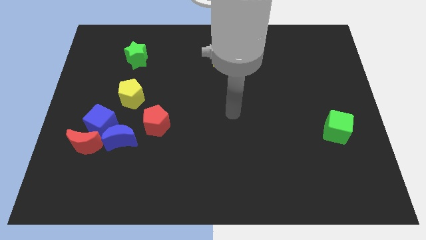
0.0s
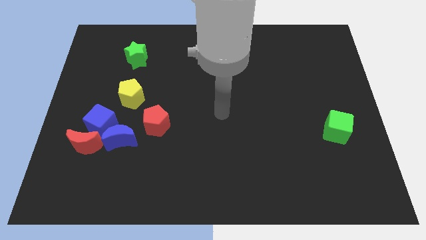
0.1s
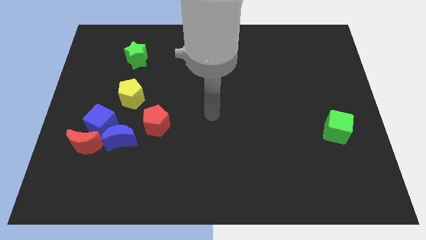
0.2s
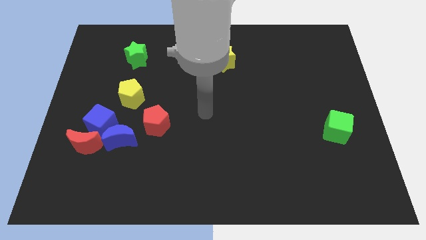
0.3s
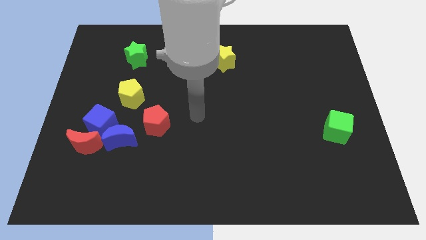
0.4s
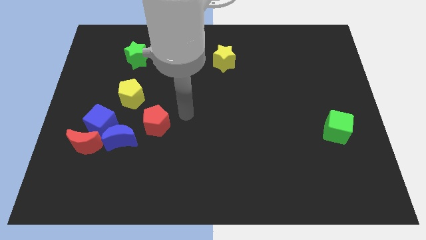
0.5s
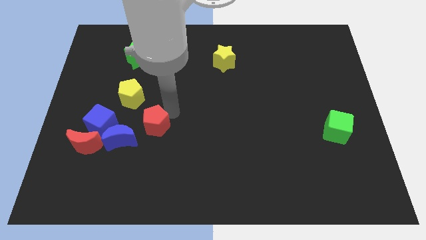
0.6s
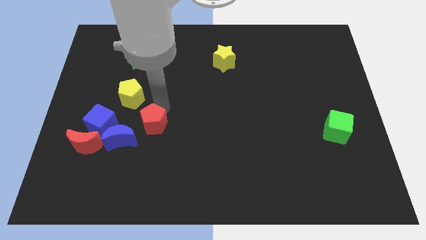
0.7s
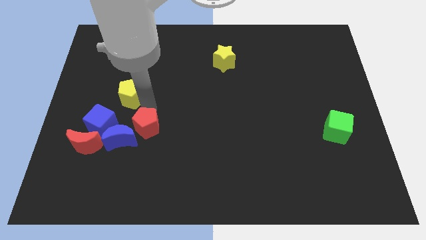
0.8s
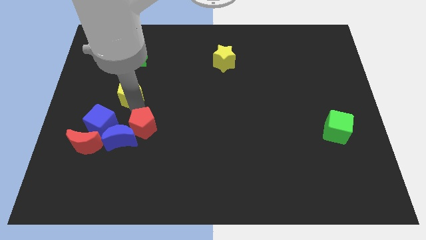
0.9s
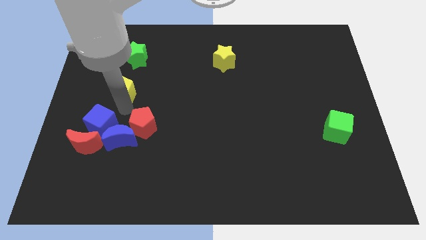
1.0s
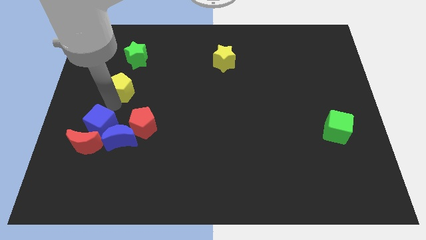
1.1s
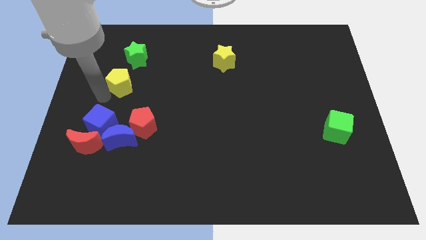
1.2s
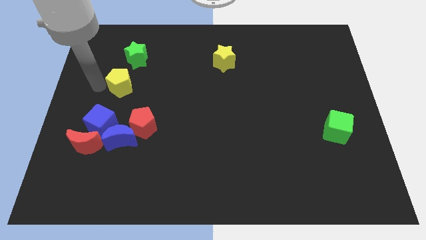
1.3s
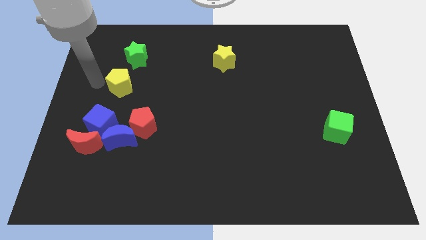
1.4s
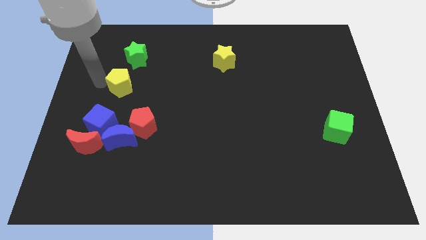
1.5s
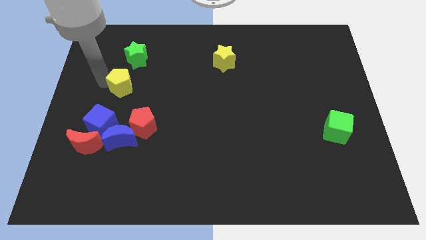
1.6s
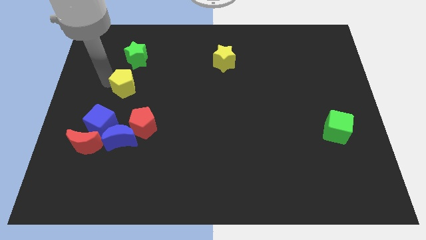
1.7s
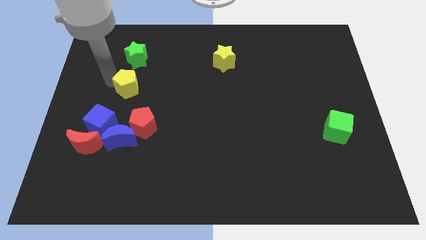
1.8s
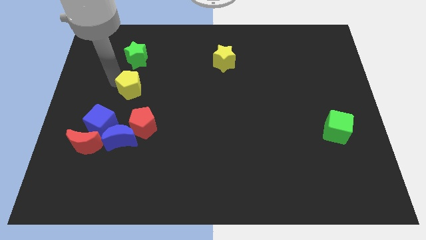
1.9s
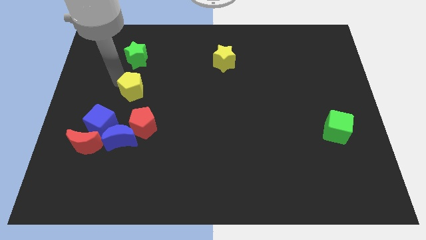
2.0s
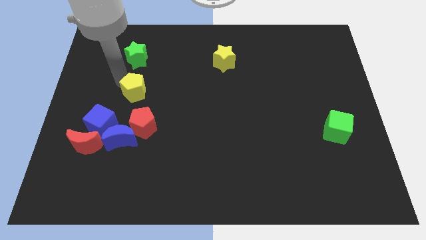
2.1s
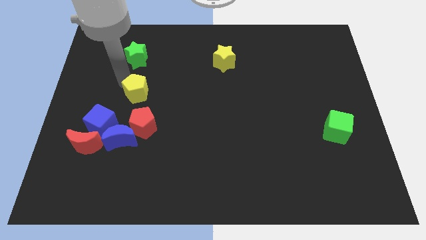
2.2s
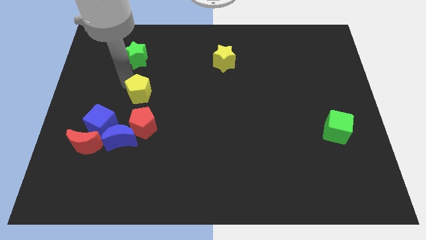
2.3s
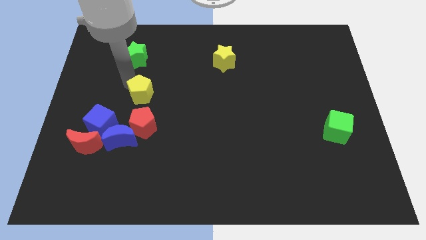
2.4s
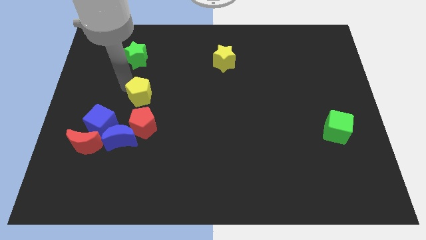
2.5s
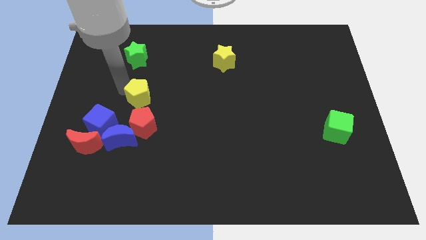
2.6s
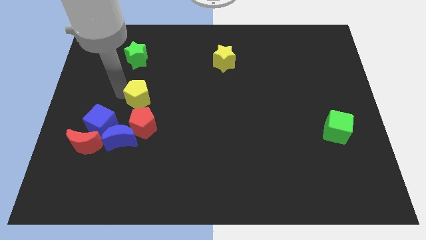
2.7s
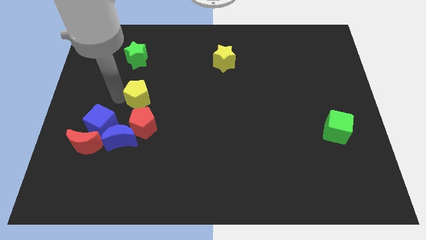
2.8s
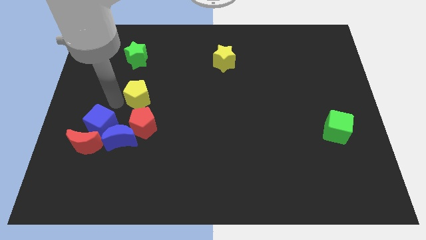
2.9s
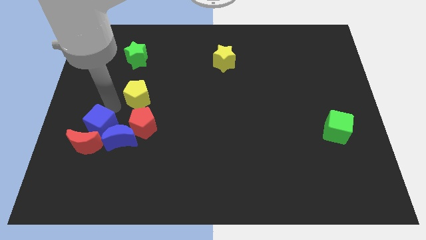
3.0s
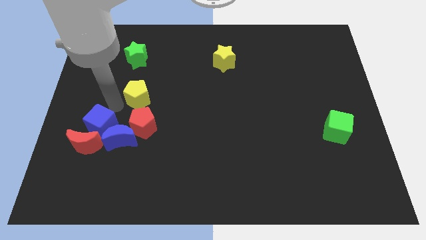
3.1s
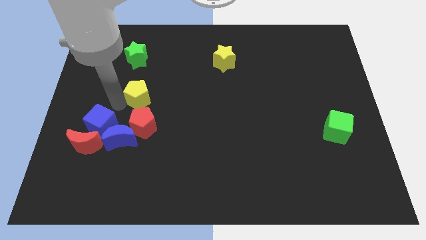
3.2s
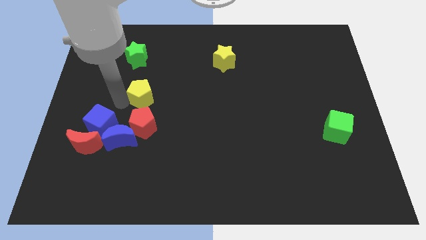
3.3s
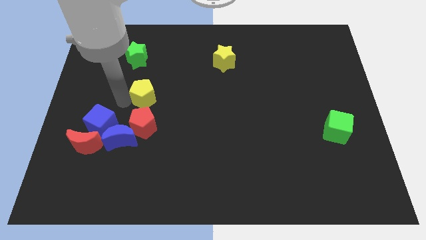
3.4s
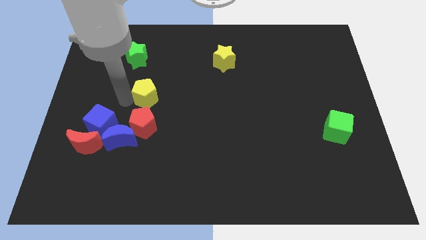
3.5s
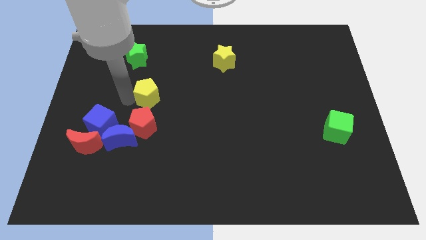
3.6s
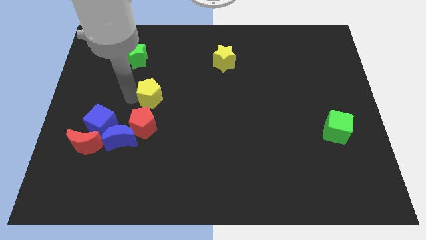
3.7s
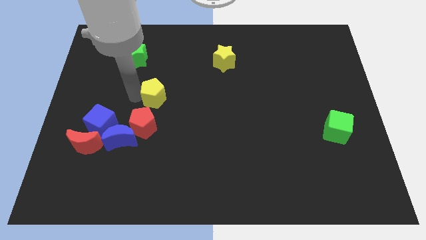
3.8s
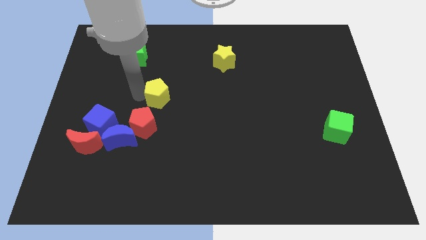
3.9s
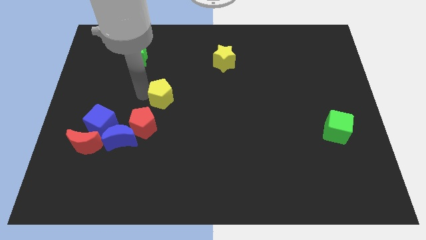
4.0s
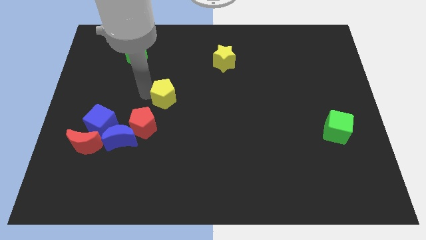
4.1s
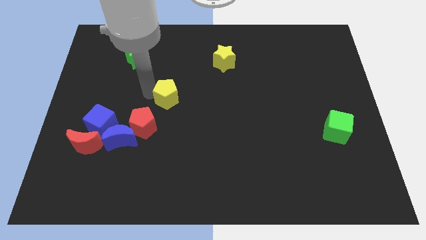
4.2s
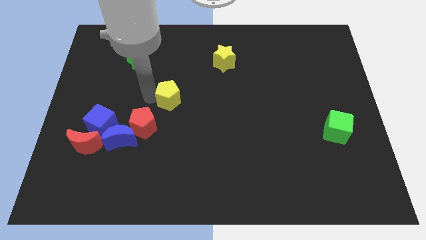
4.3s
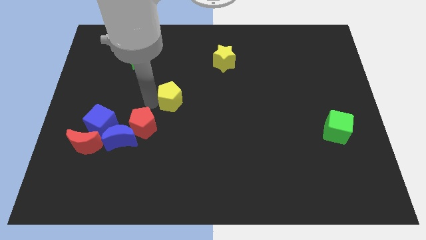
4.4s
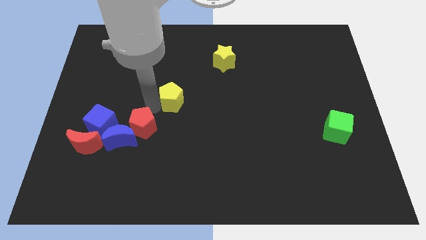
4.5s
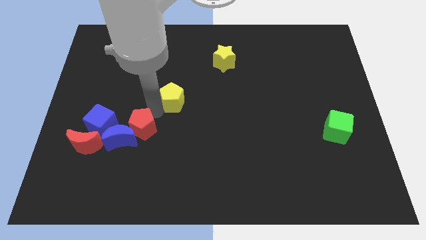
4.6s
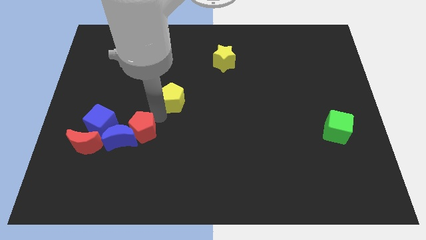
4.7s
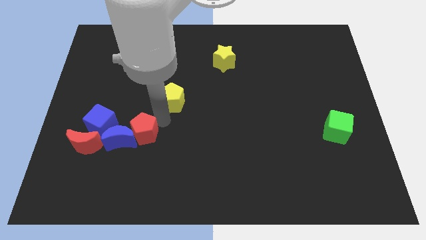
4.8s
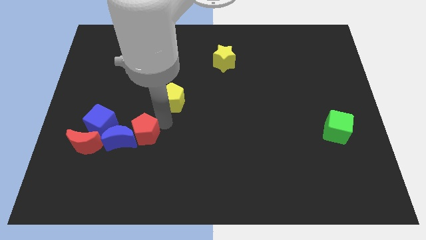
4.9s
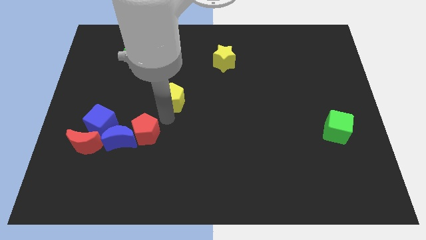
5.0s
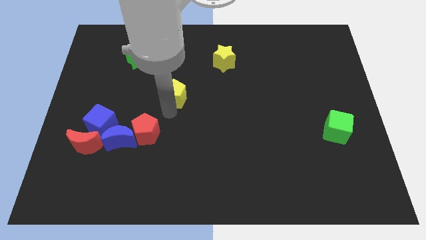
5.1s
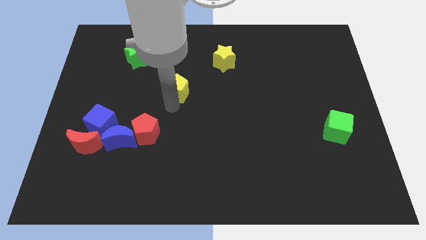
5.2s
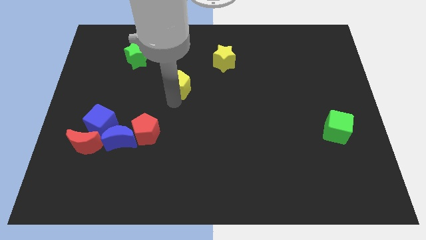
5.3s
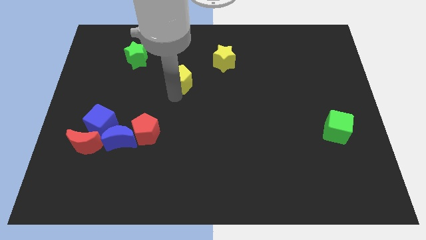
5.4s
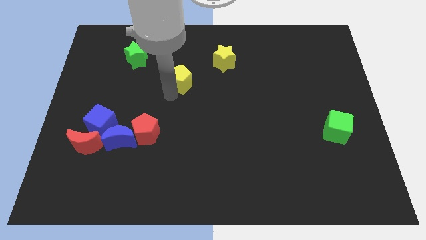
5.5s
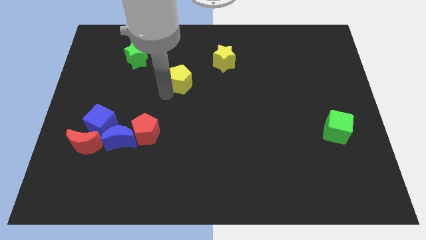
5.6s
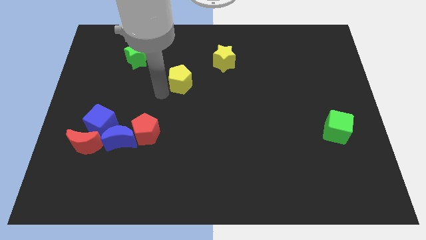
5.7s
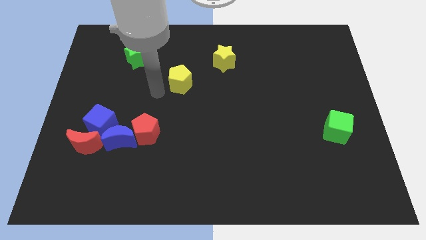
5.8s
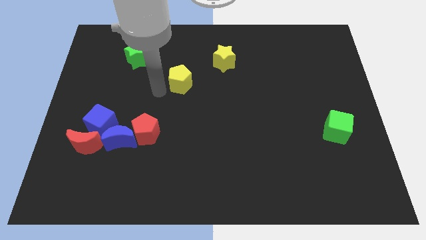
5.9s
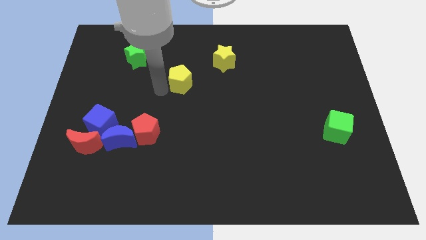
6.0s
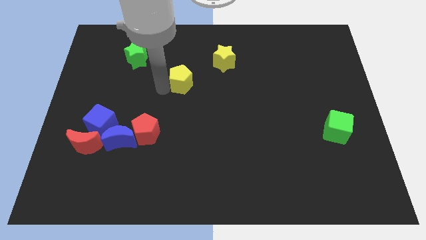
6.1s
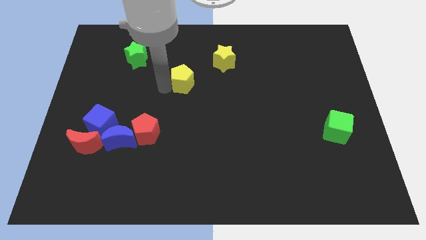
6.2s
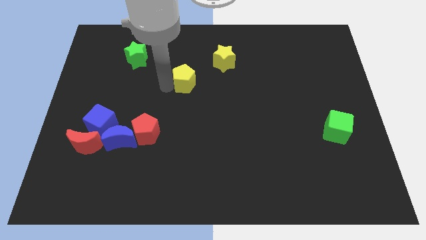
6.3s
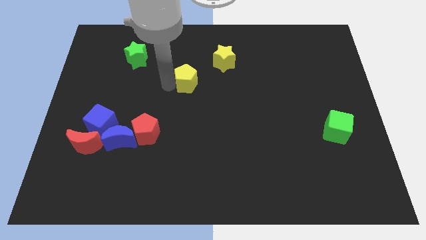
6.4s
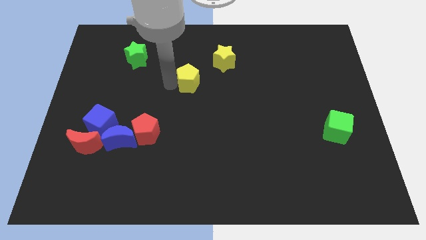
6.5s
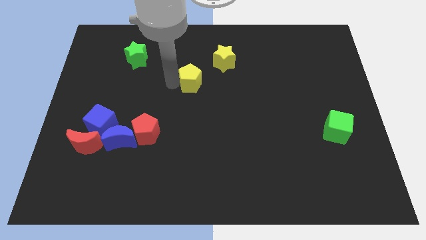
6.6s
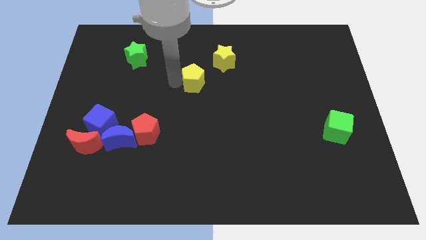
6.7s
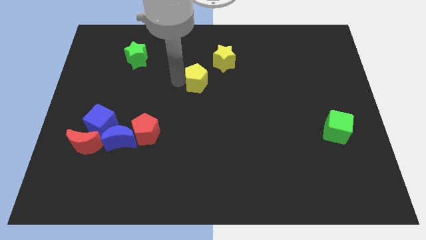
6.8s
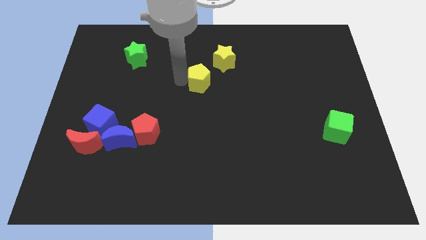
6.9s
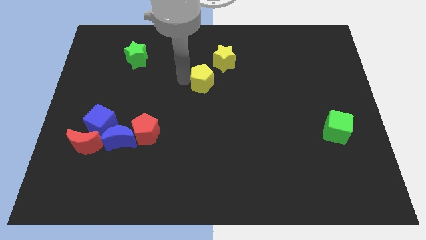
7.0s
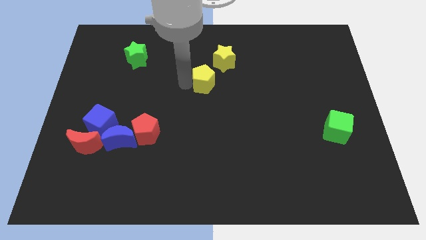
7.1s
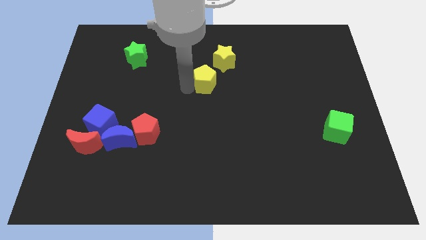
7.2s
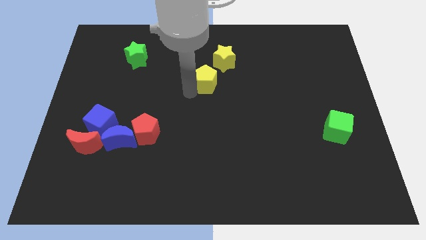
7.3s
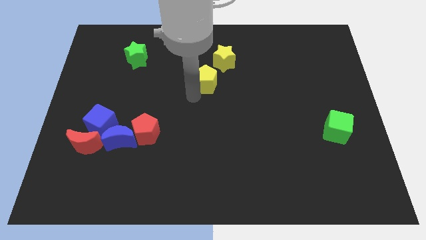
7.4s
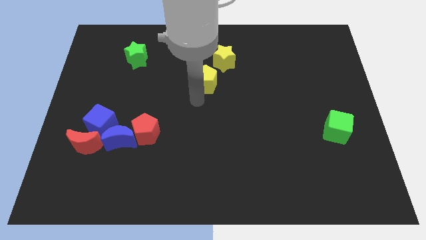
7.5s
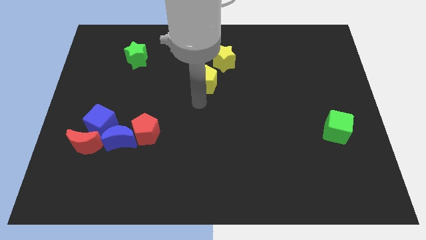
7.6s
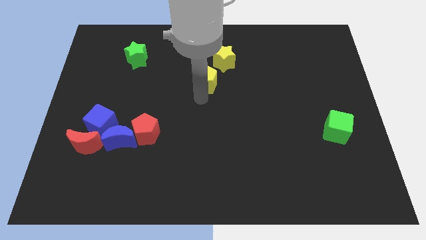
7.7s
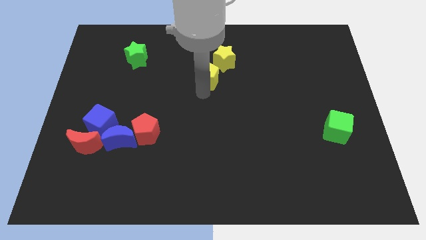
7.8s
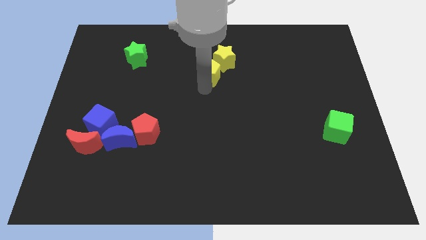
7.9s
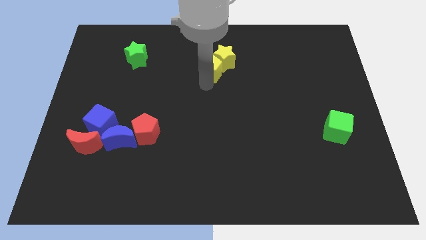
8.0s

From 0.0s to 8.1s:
move the yellow pentagon next to the yellow star
